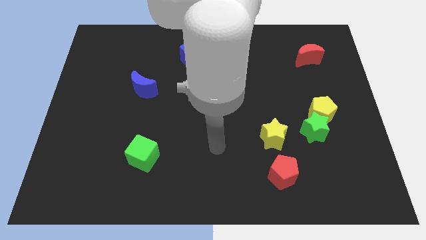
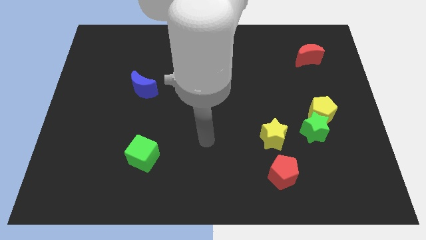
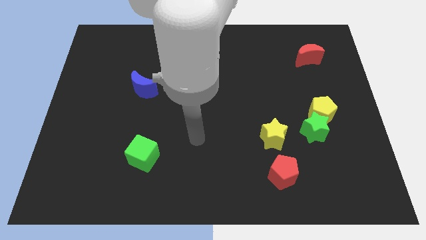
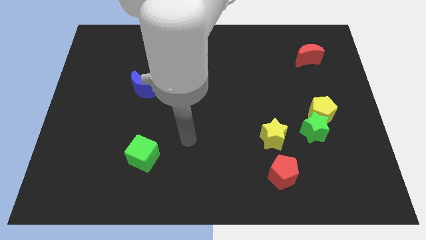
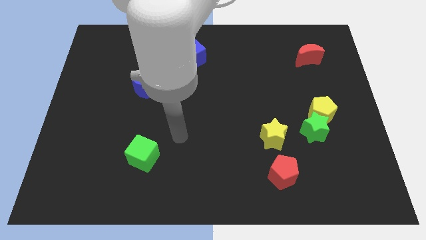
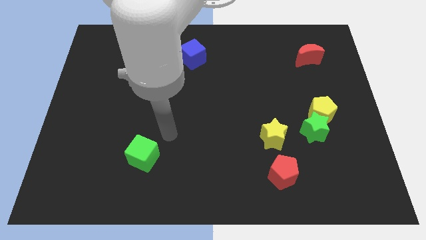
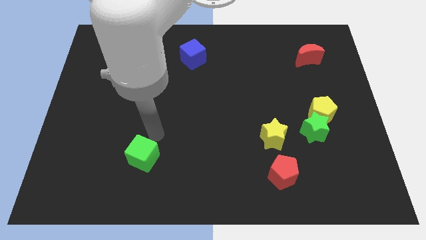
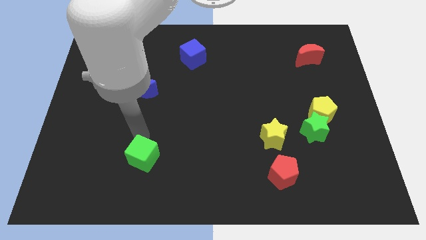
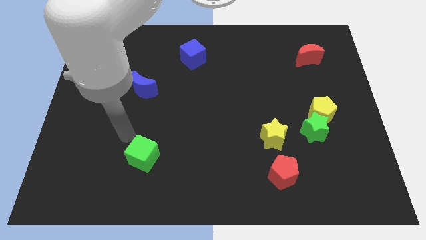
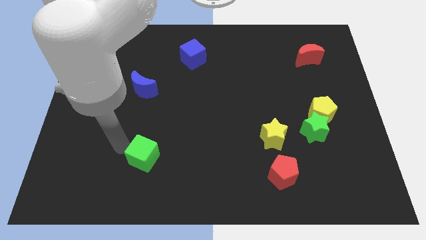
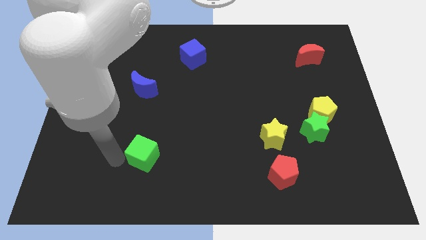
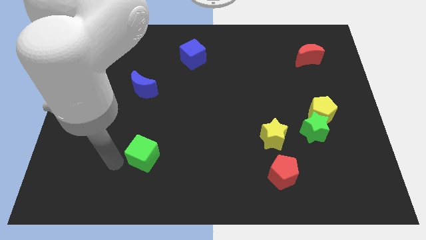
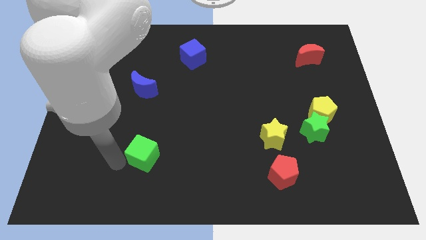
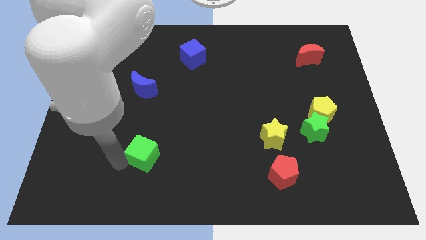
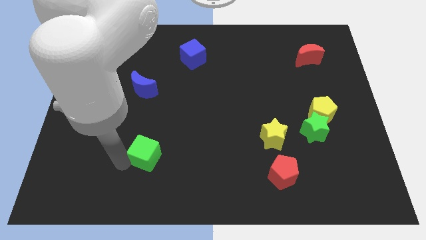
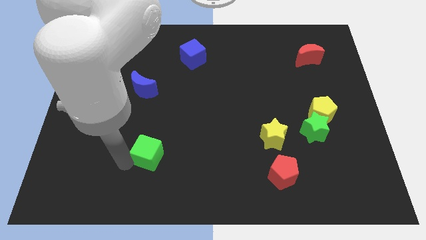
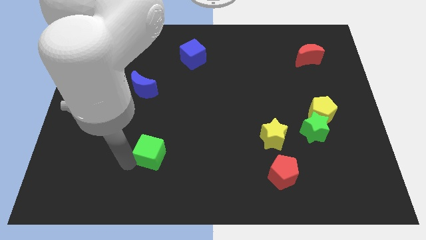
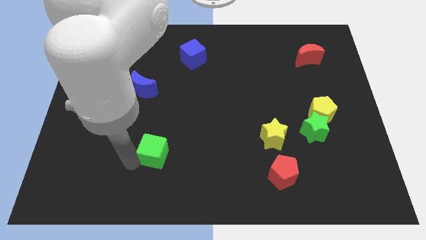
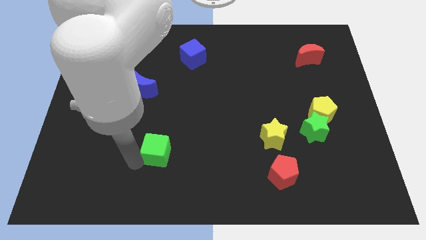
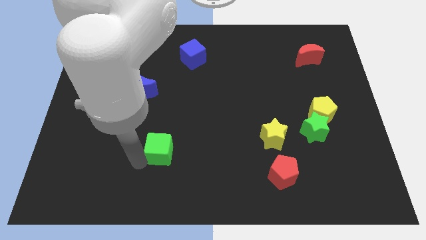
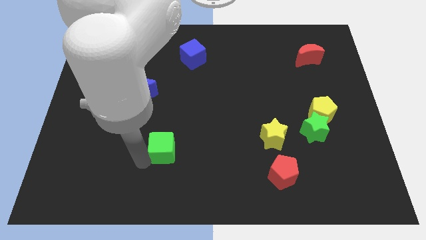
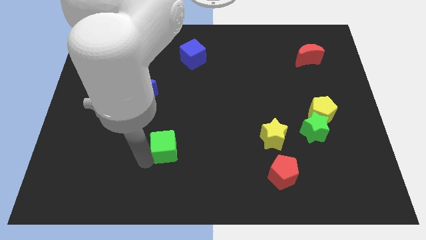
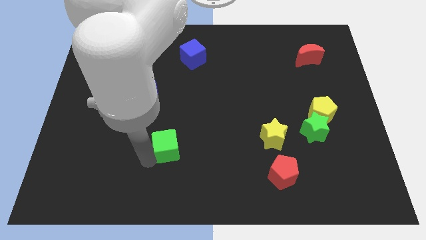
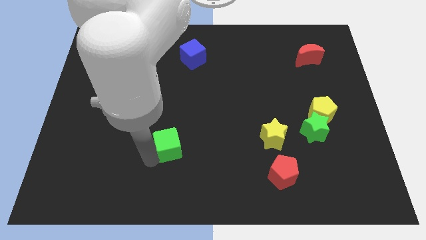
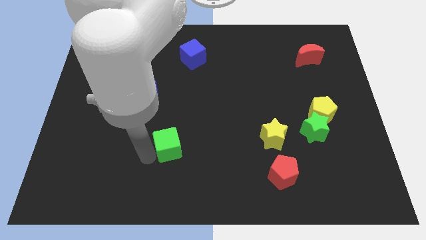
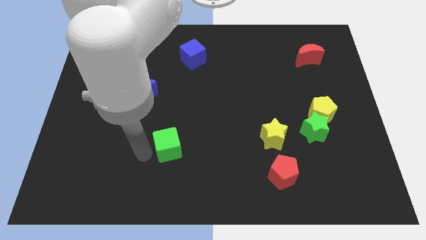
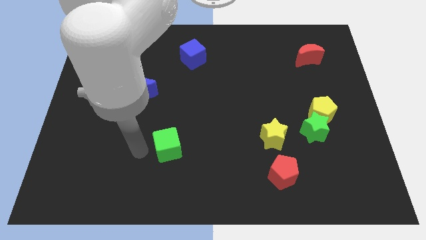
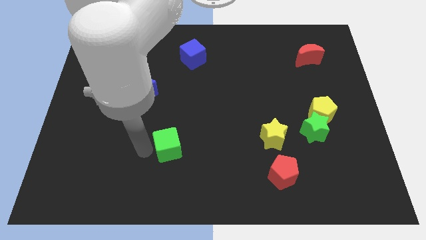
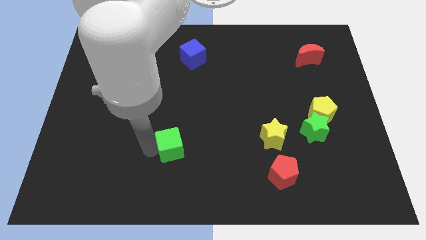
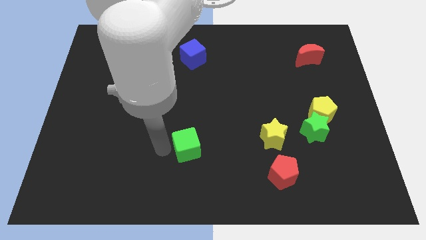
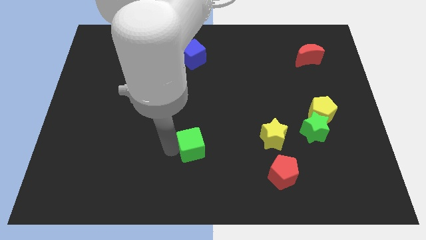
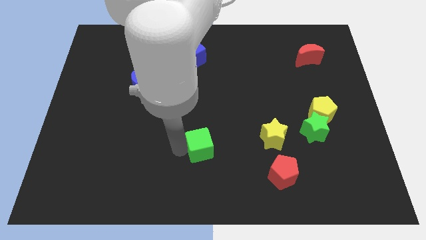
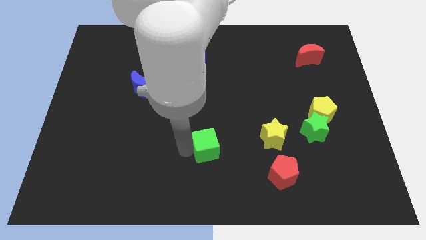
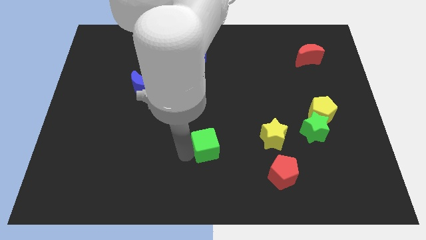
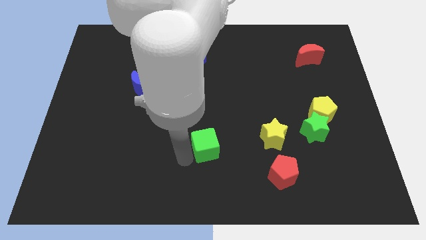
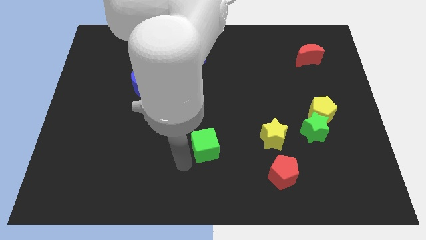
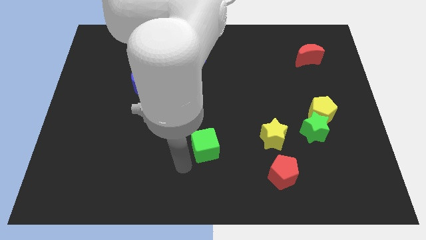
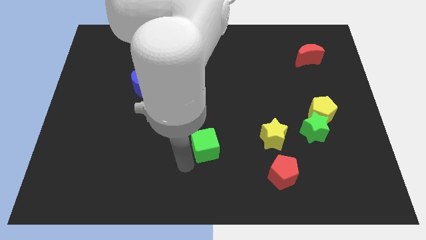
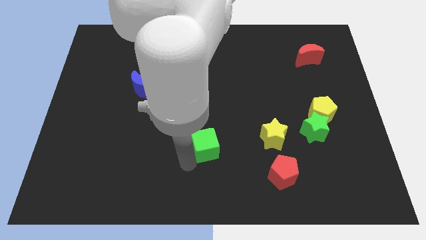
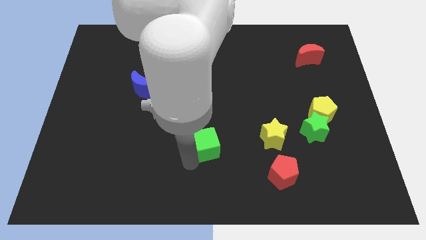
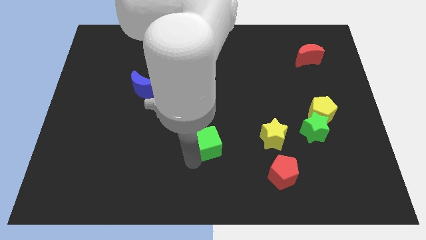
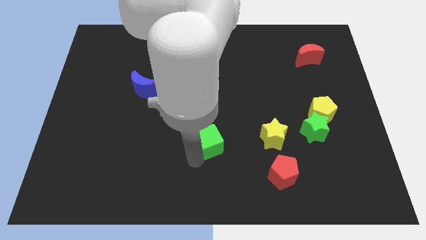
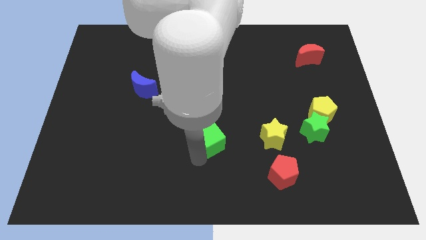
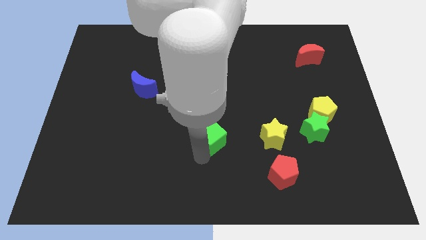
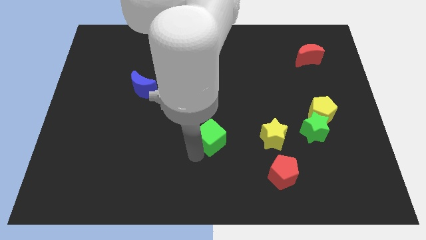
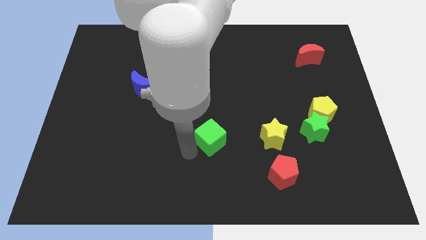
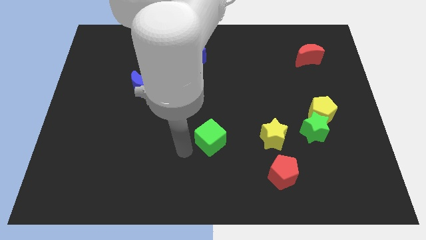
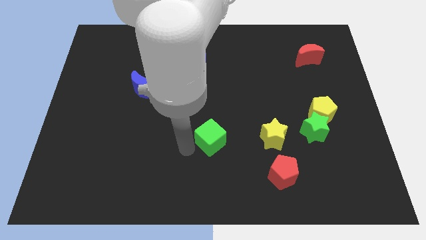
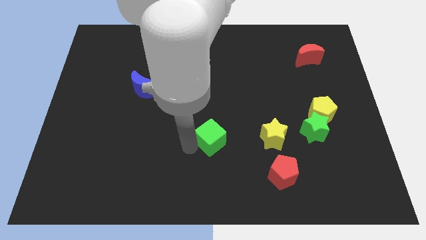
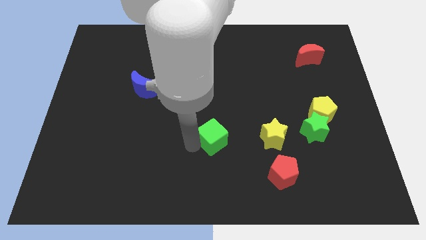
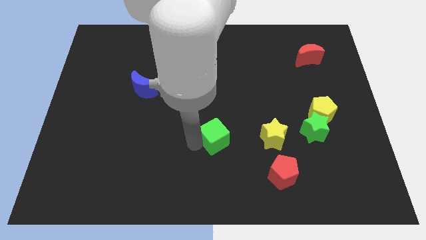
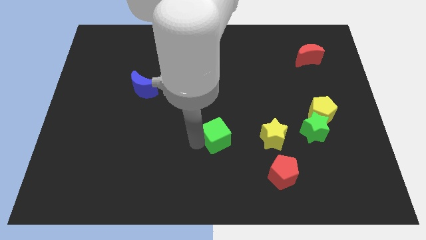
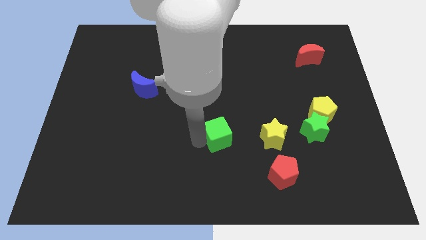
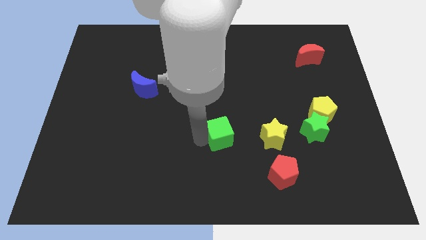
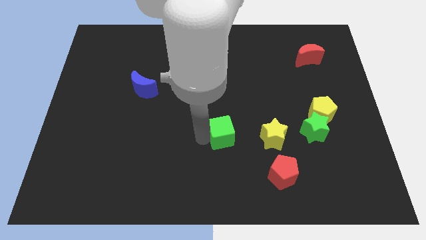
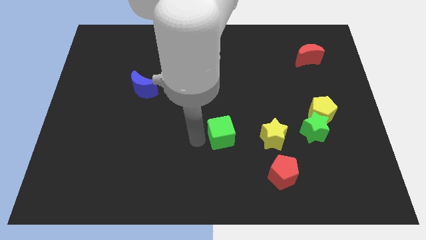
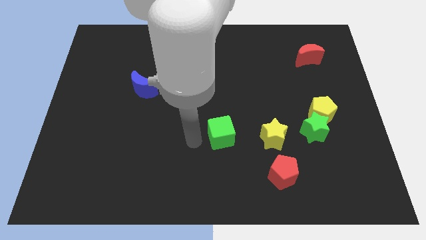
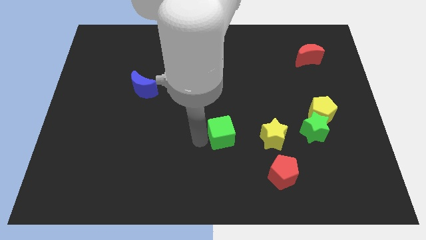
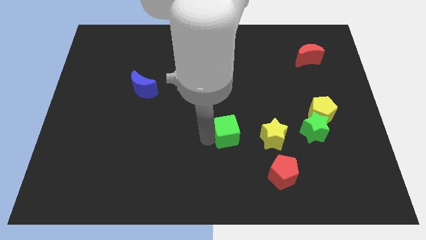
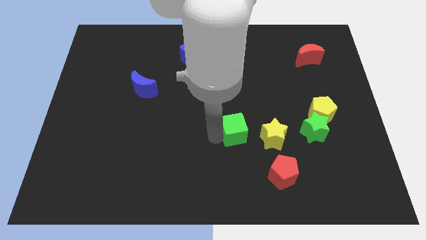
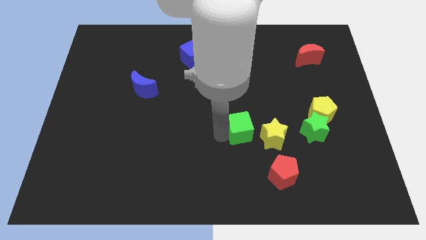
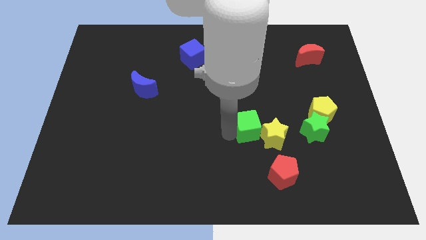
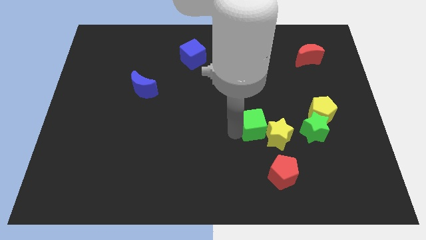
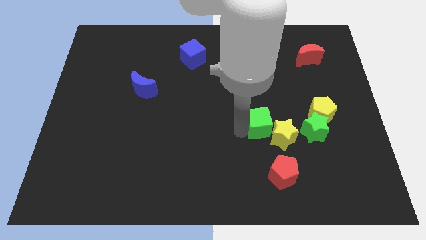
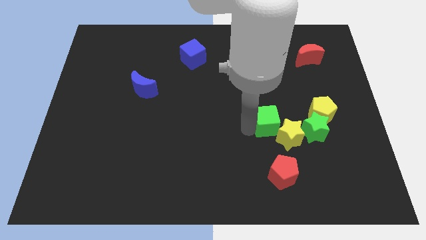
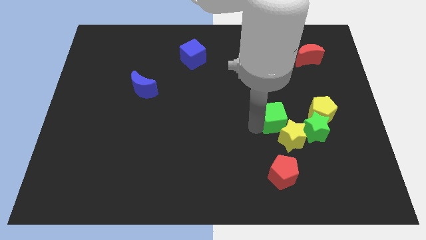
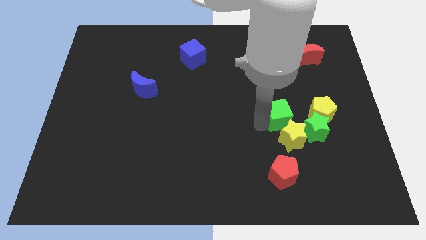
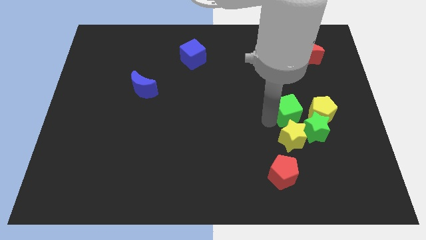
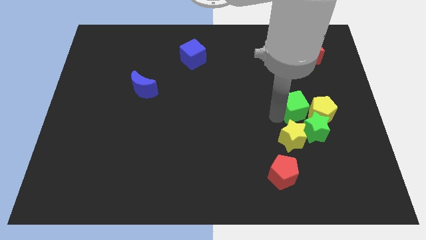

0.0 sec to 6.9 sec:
put the green cube to the yellow pentagon

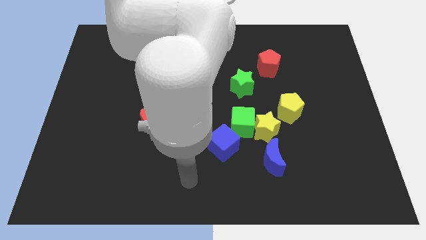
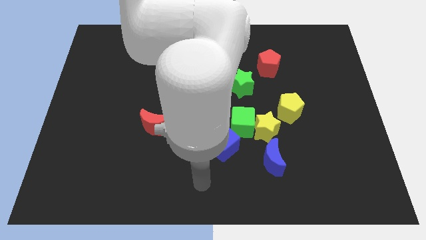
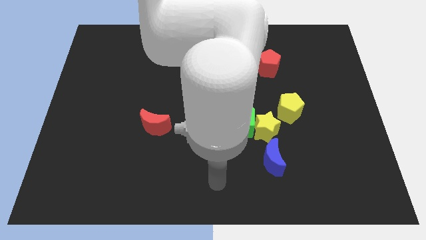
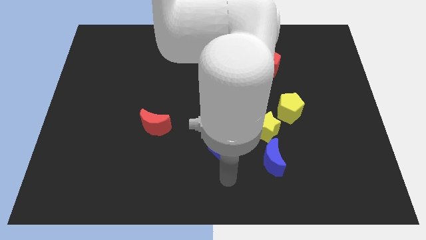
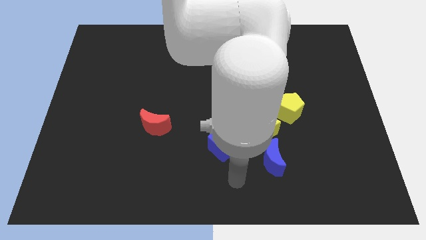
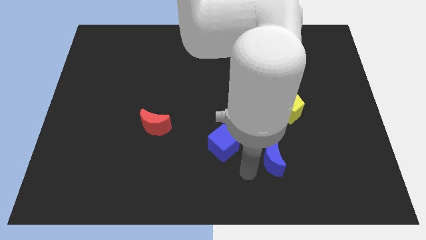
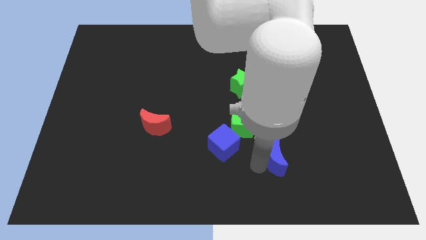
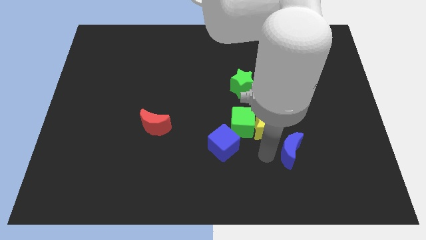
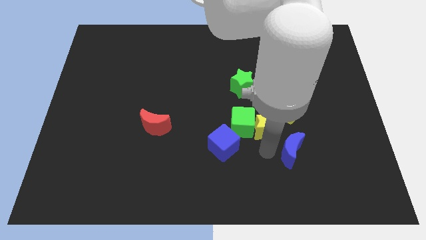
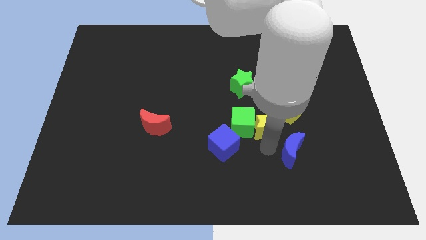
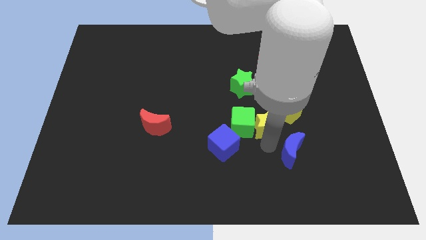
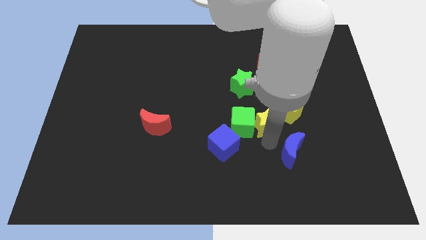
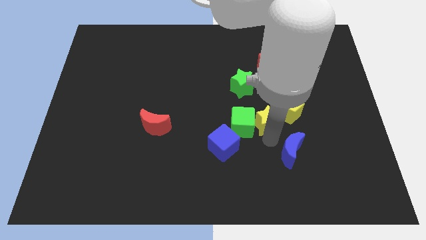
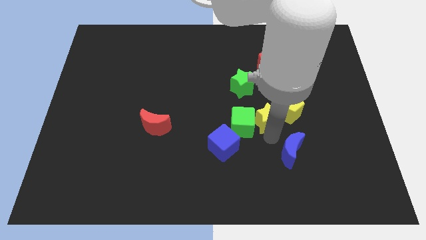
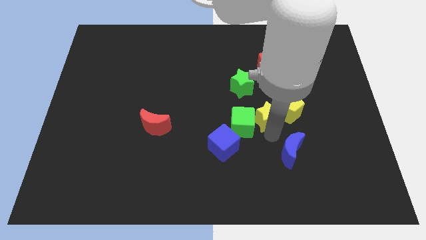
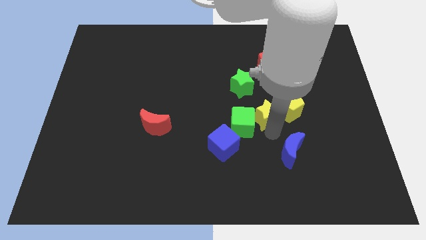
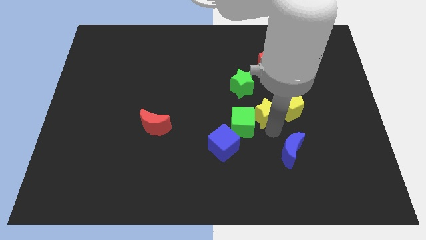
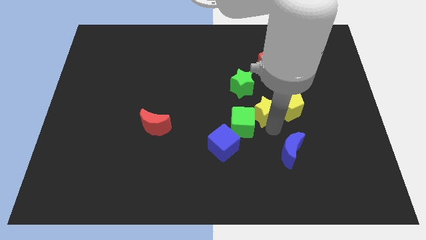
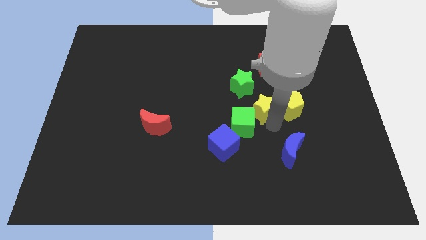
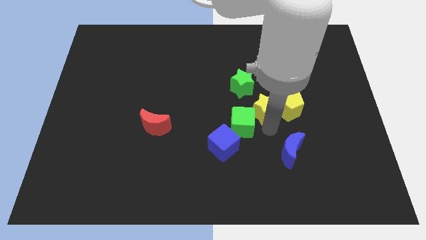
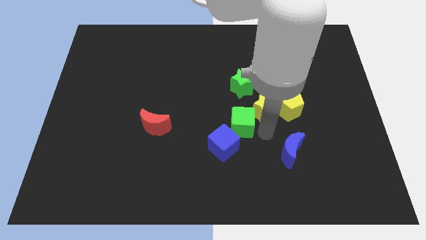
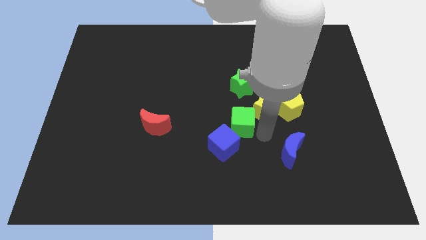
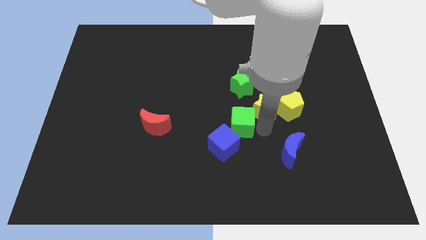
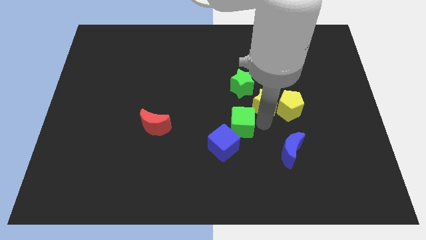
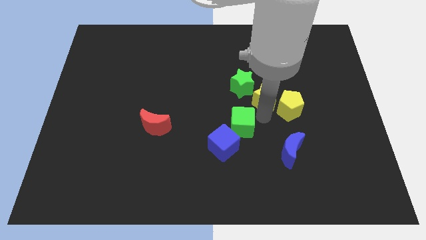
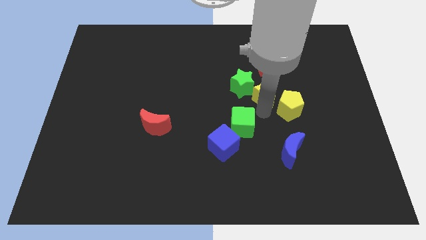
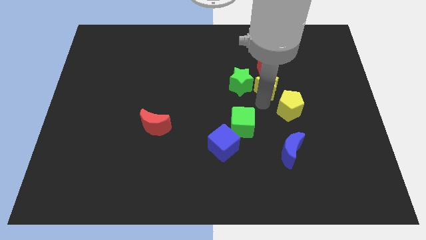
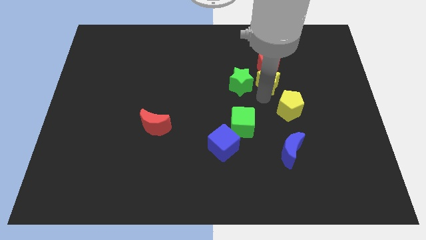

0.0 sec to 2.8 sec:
move the yellow star towards the red pentagon
